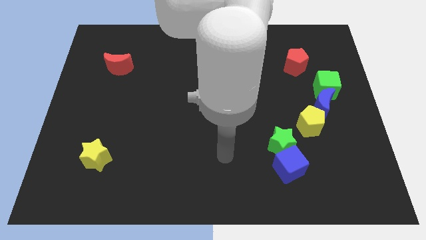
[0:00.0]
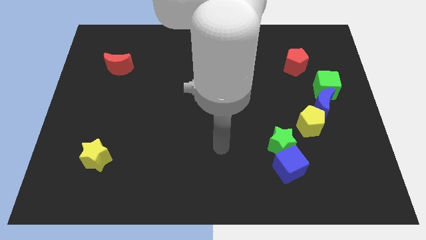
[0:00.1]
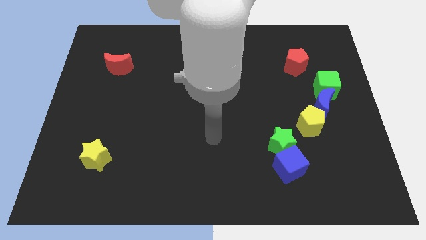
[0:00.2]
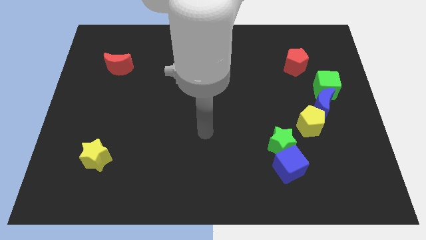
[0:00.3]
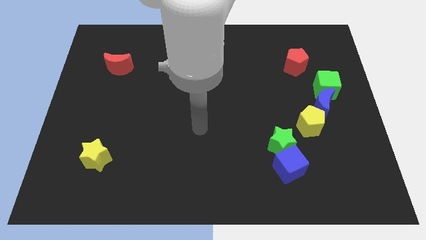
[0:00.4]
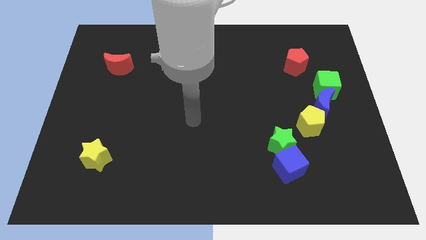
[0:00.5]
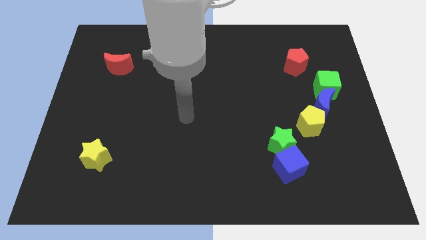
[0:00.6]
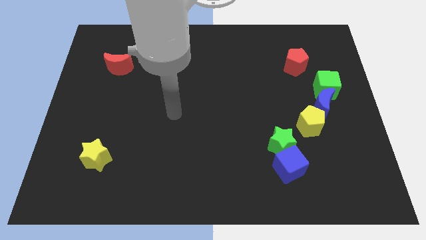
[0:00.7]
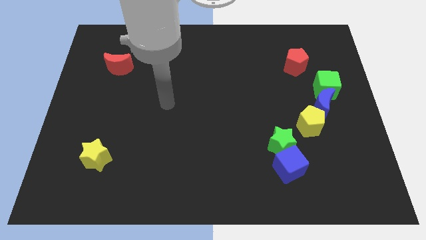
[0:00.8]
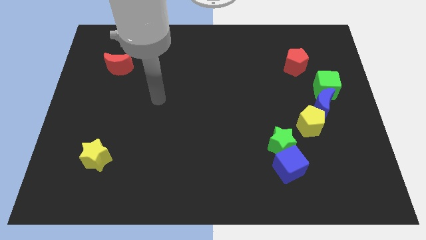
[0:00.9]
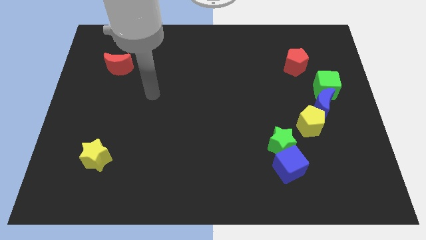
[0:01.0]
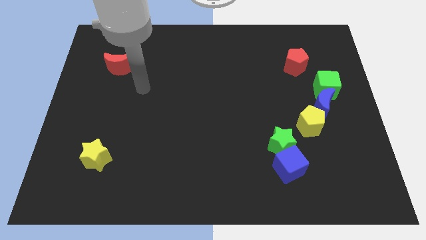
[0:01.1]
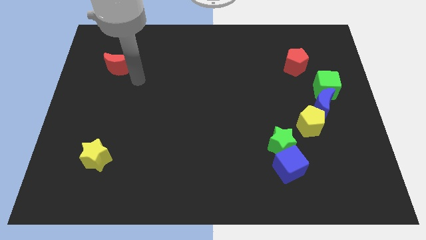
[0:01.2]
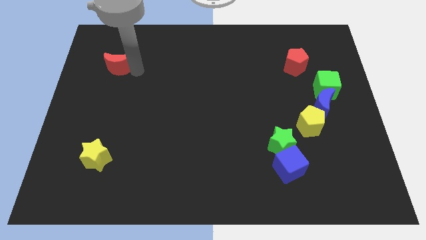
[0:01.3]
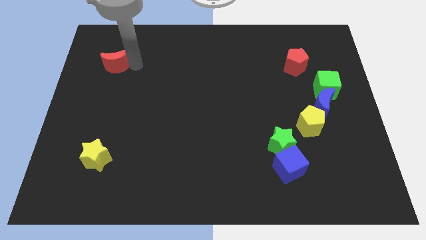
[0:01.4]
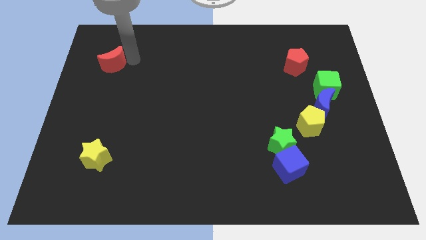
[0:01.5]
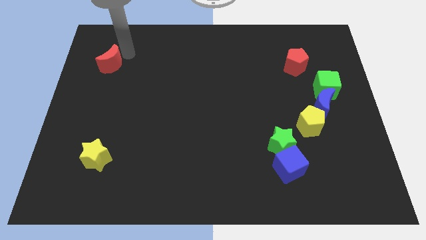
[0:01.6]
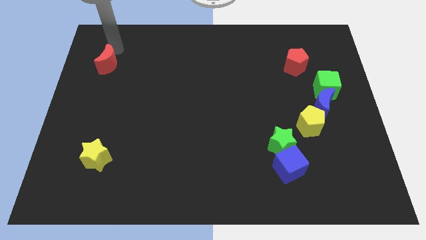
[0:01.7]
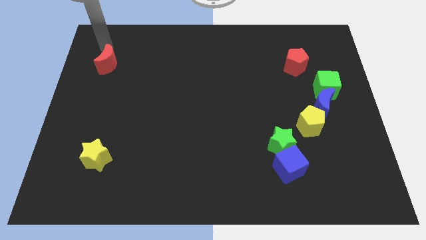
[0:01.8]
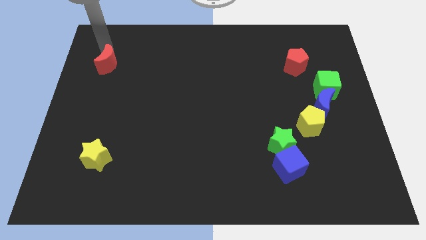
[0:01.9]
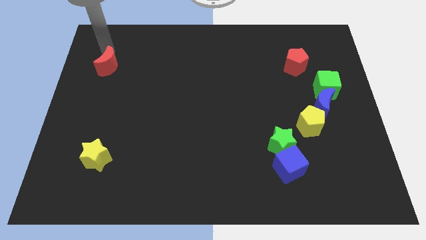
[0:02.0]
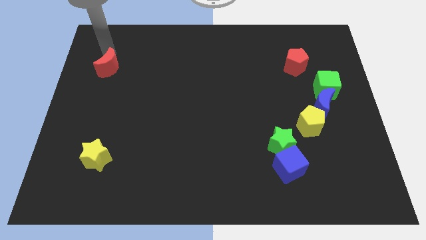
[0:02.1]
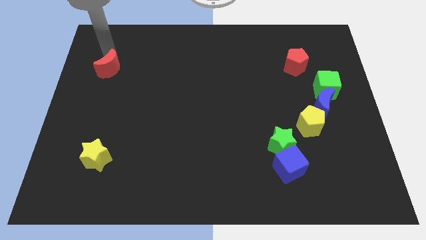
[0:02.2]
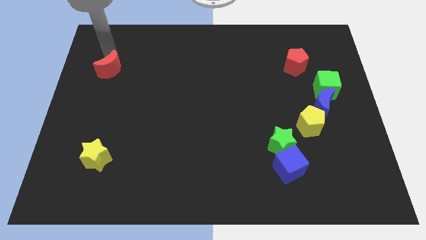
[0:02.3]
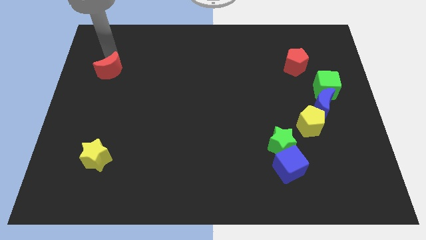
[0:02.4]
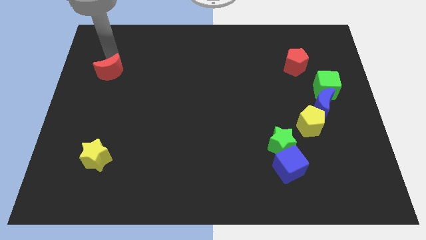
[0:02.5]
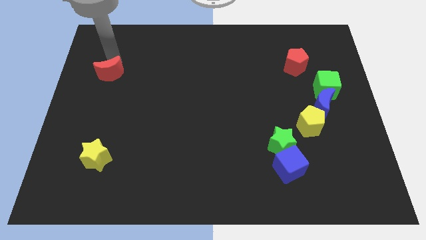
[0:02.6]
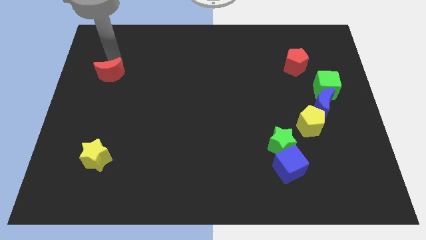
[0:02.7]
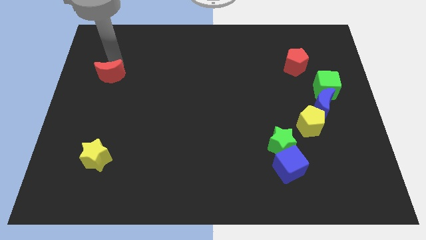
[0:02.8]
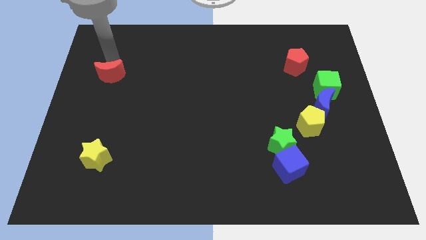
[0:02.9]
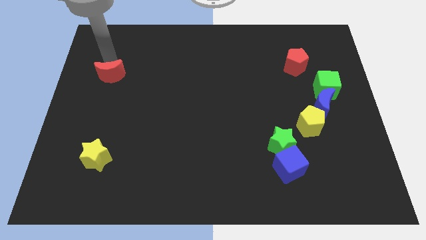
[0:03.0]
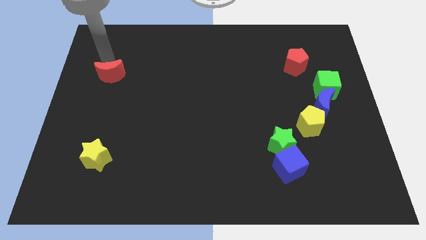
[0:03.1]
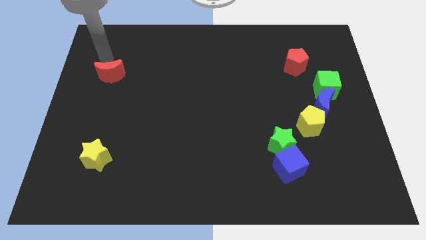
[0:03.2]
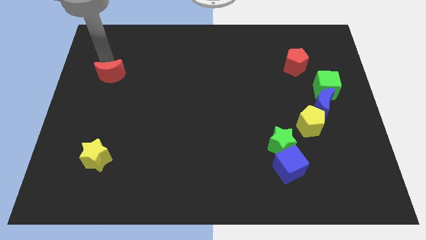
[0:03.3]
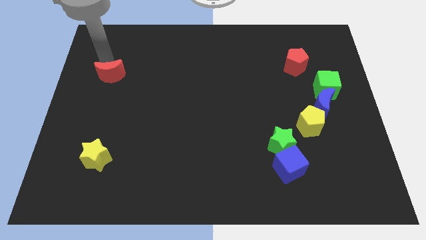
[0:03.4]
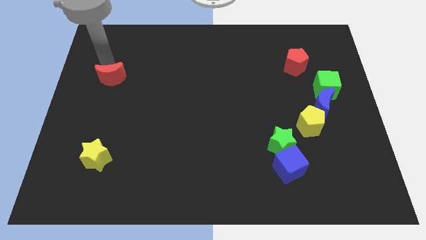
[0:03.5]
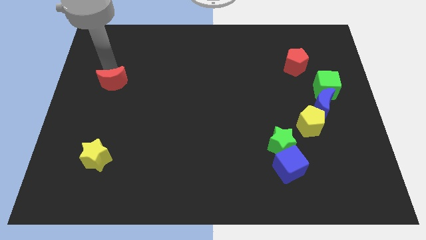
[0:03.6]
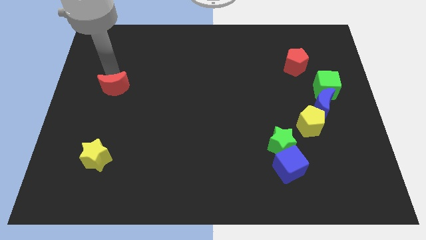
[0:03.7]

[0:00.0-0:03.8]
move the red moon down slightly

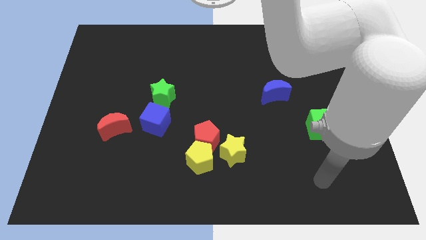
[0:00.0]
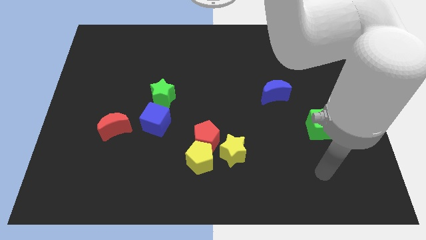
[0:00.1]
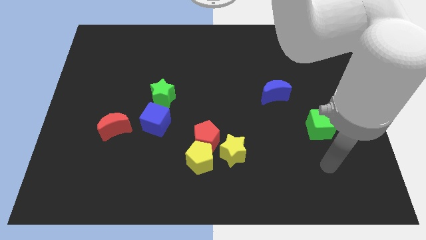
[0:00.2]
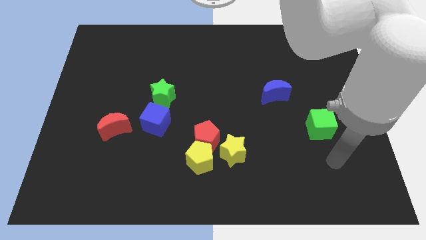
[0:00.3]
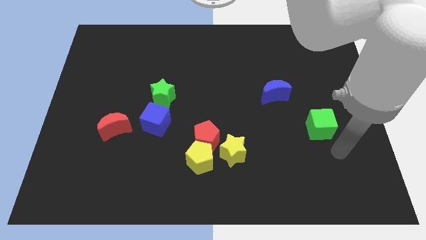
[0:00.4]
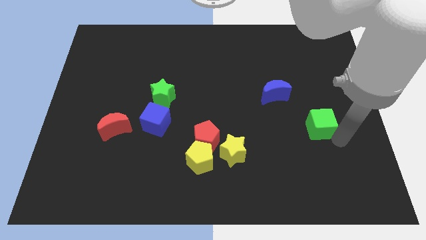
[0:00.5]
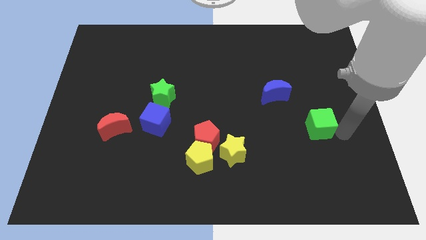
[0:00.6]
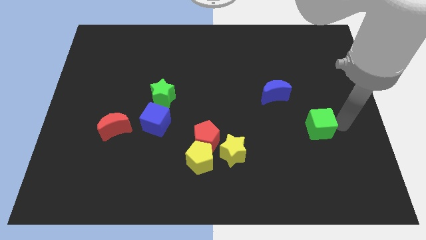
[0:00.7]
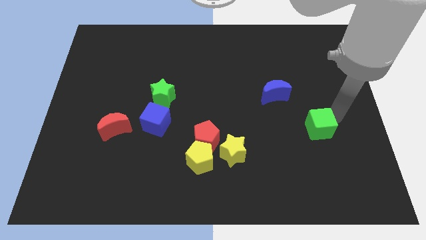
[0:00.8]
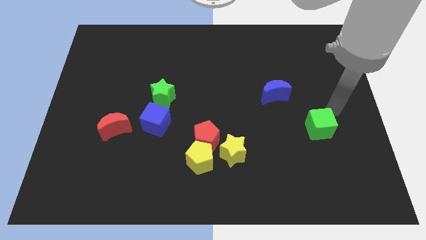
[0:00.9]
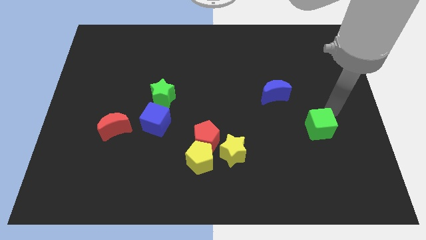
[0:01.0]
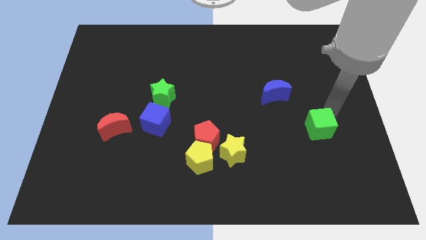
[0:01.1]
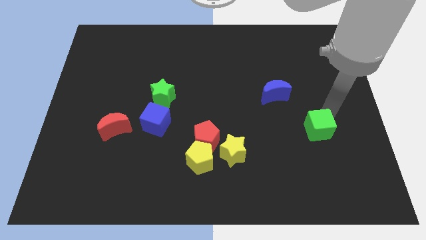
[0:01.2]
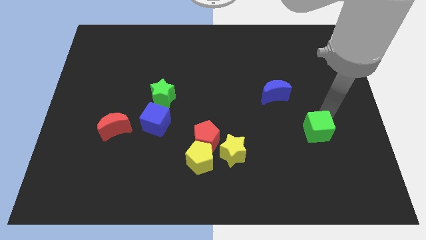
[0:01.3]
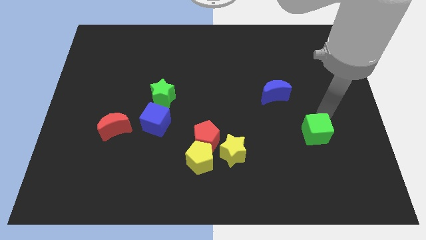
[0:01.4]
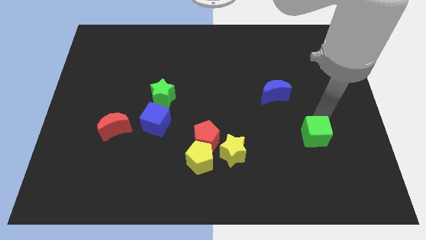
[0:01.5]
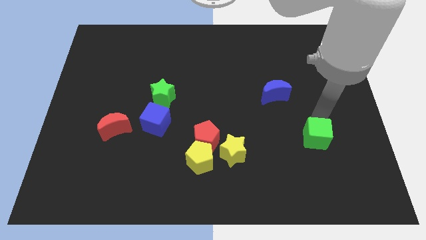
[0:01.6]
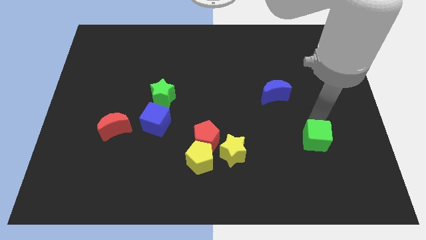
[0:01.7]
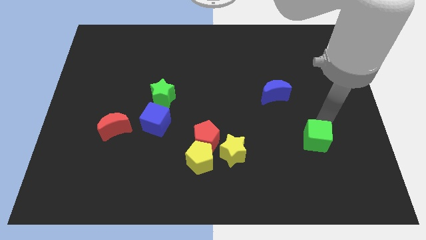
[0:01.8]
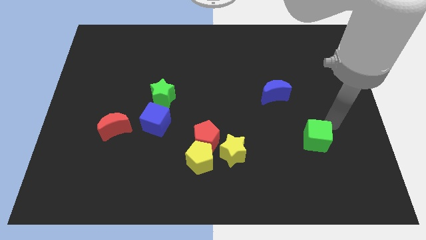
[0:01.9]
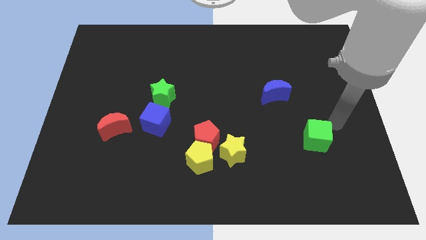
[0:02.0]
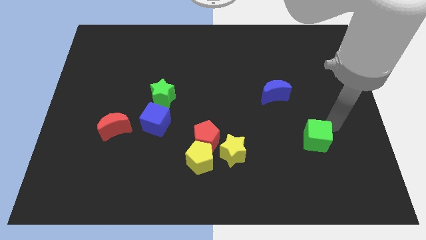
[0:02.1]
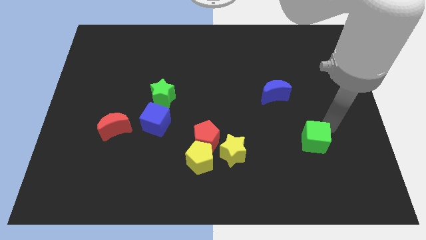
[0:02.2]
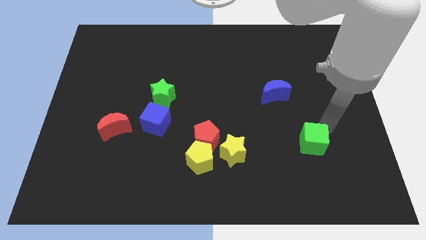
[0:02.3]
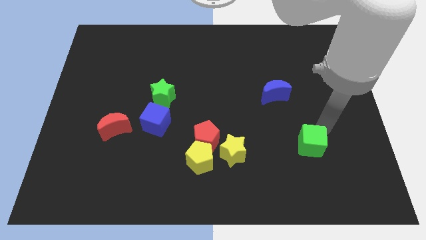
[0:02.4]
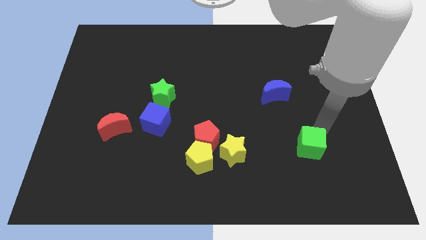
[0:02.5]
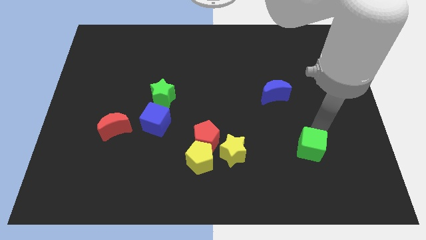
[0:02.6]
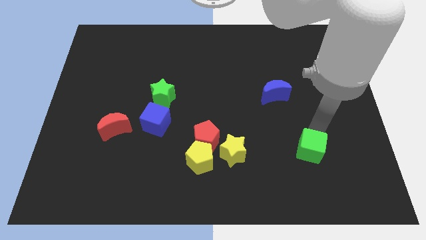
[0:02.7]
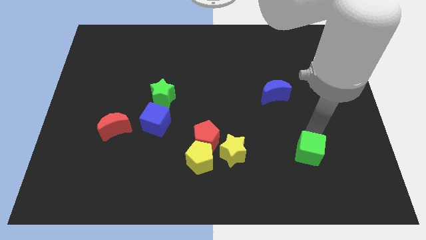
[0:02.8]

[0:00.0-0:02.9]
slightly slide the green cube downwards and then to the left

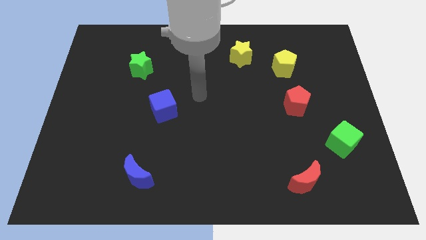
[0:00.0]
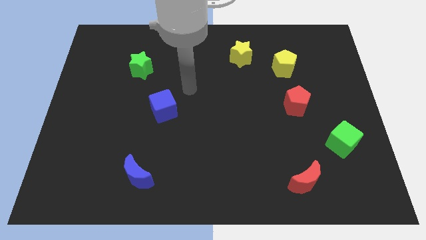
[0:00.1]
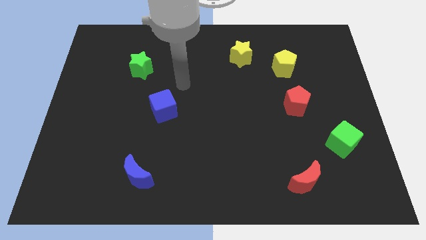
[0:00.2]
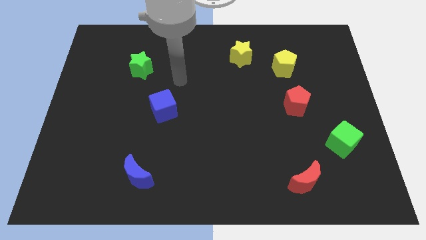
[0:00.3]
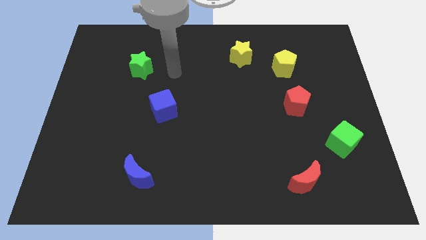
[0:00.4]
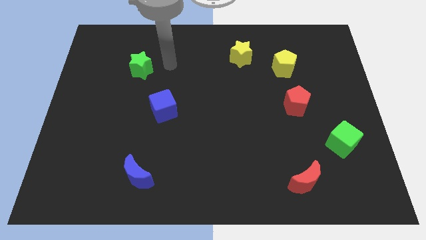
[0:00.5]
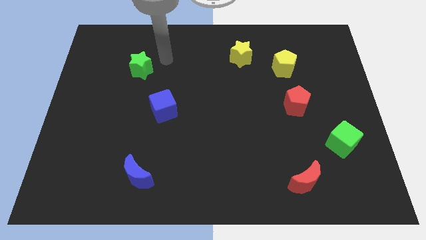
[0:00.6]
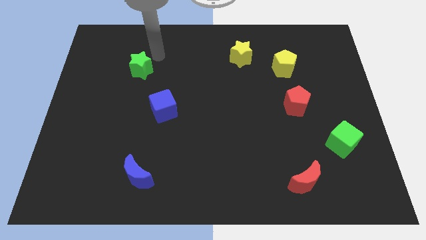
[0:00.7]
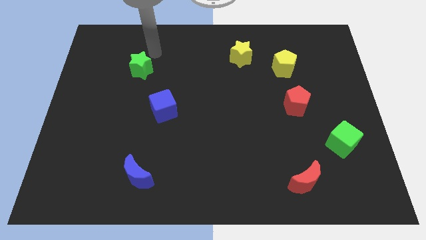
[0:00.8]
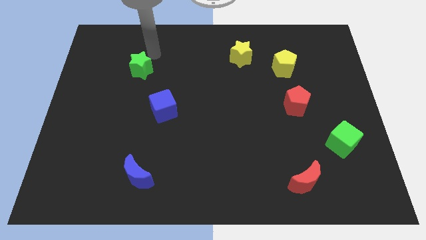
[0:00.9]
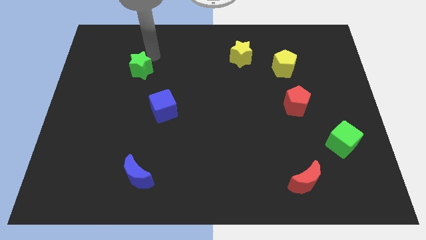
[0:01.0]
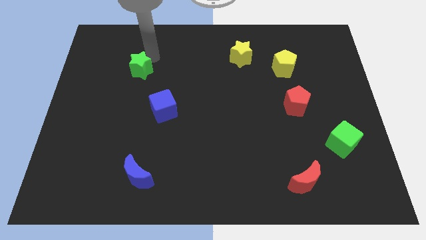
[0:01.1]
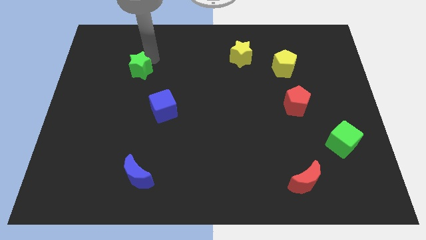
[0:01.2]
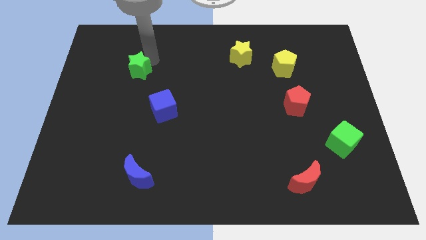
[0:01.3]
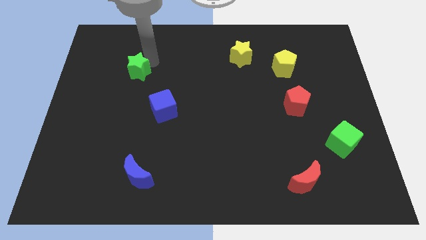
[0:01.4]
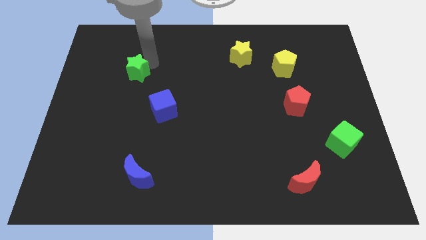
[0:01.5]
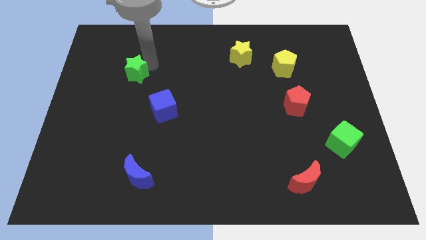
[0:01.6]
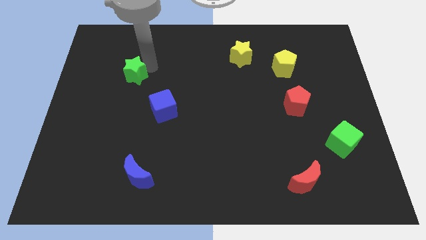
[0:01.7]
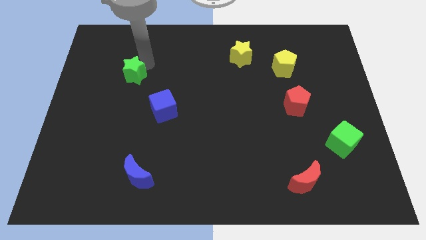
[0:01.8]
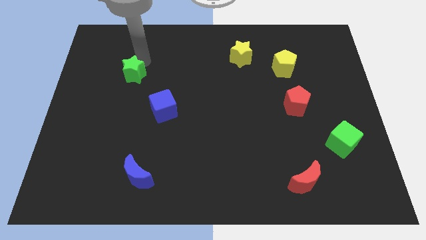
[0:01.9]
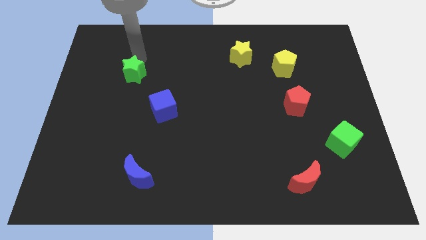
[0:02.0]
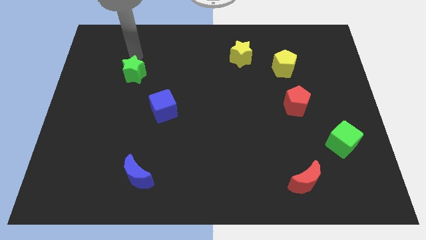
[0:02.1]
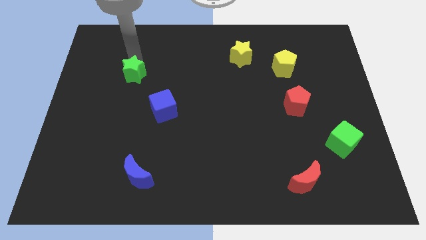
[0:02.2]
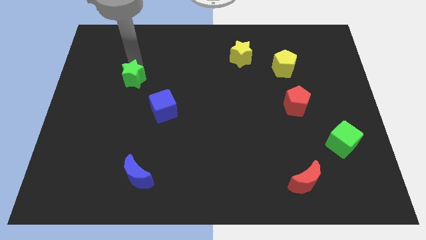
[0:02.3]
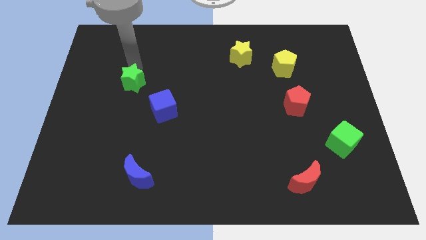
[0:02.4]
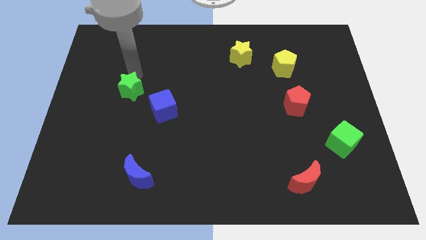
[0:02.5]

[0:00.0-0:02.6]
move the green star slightly downwards
